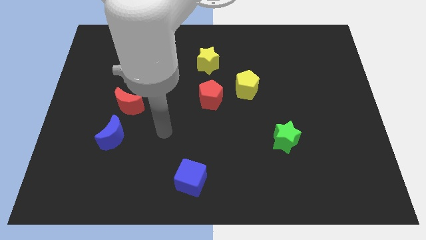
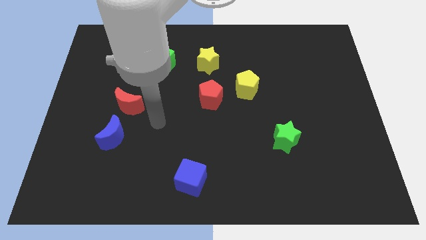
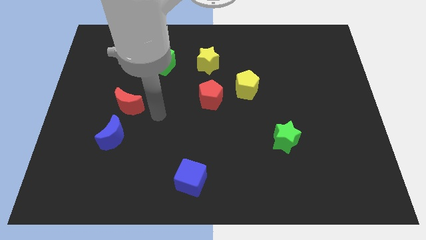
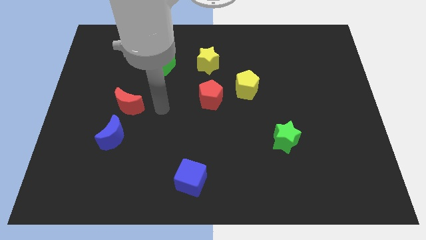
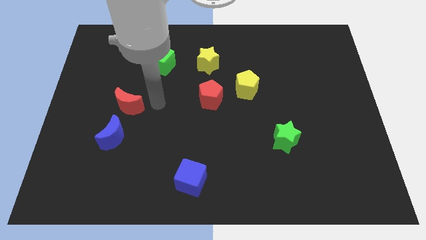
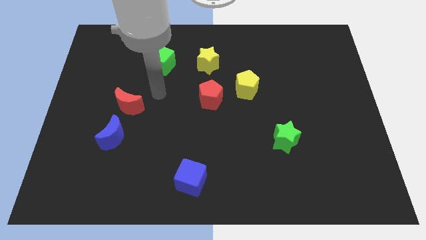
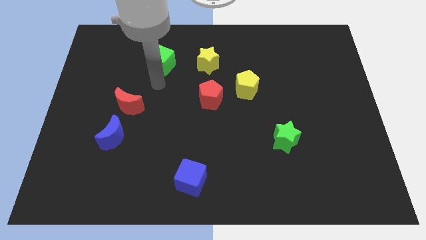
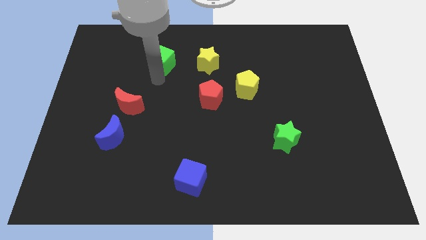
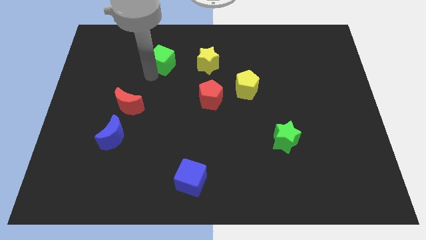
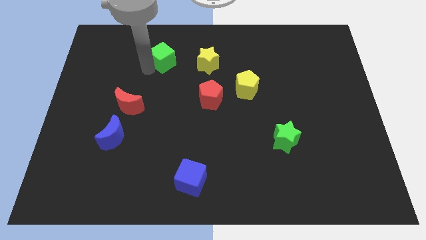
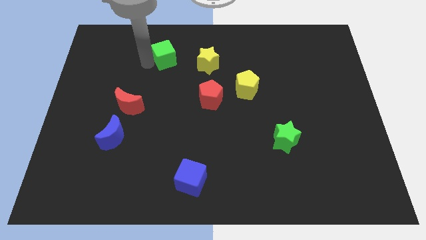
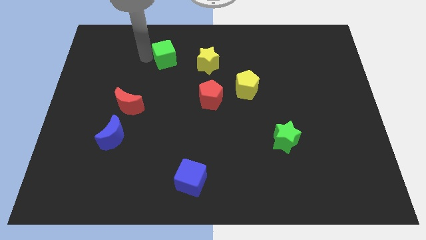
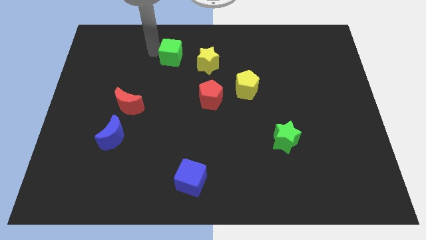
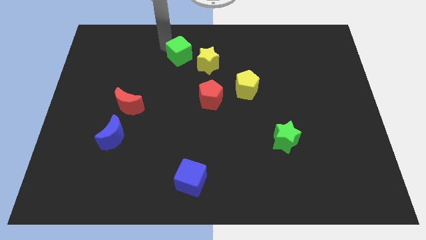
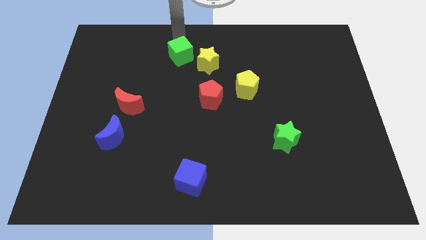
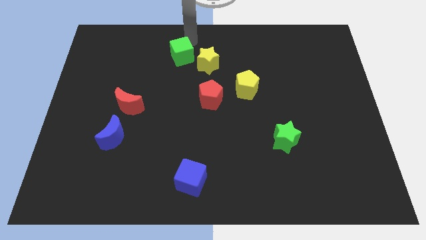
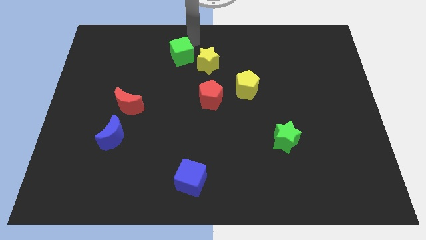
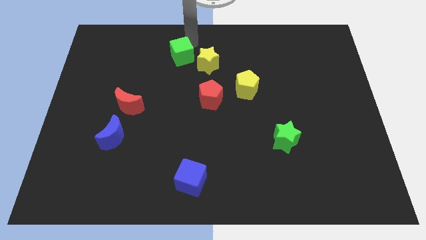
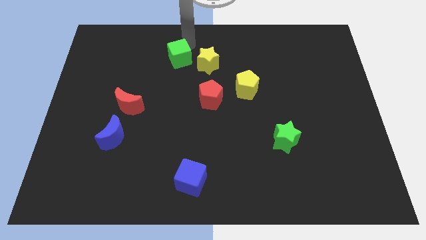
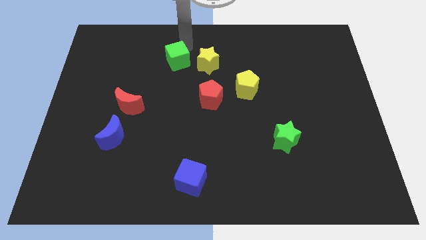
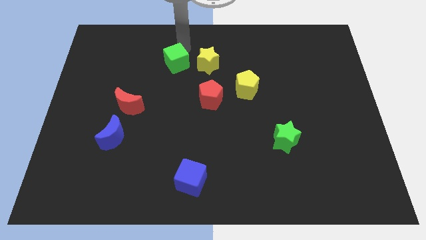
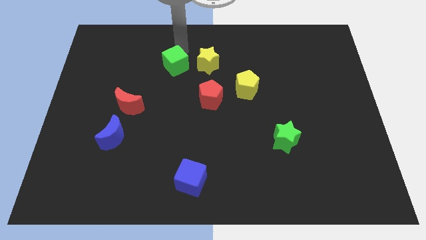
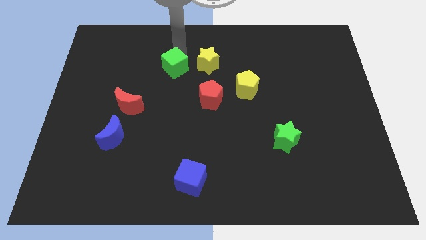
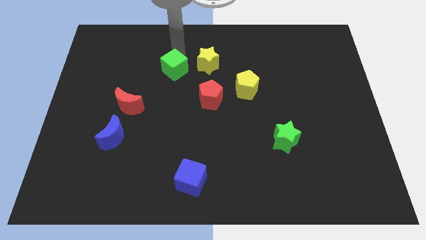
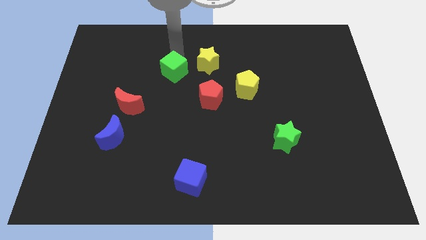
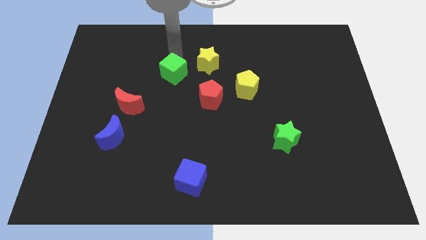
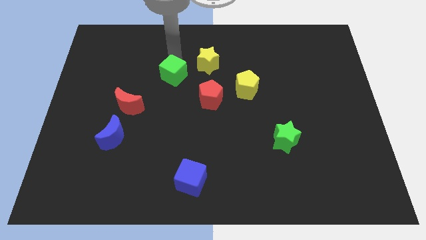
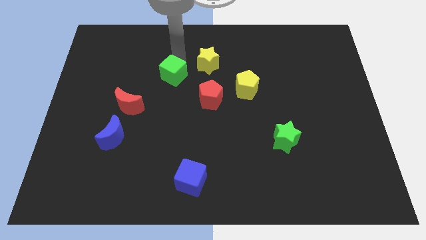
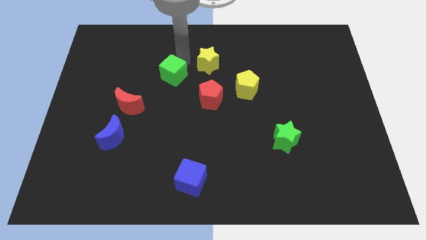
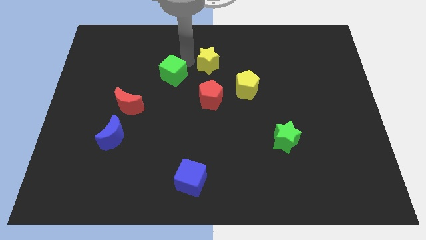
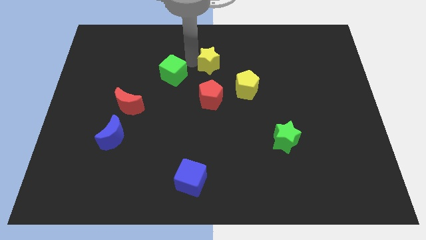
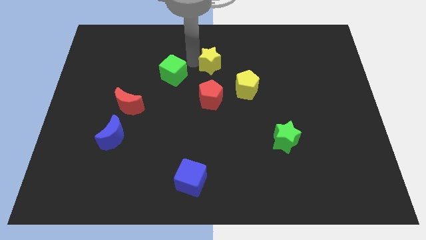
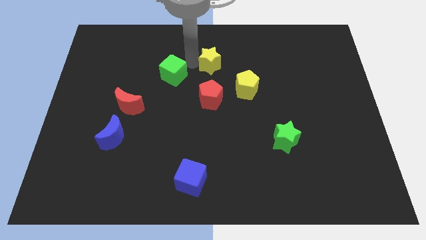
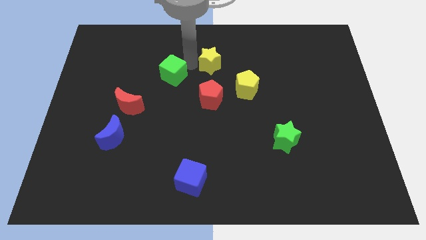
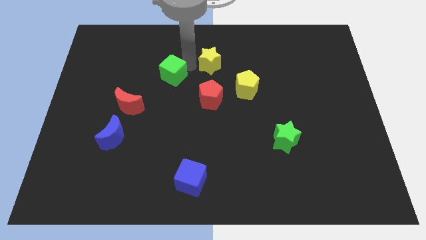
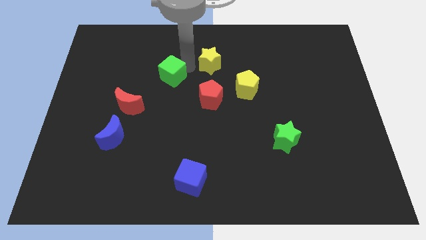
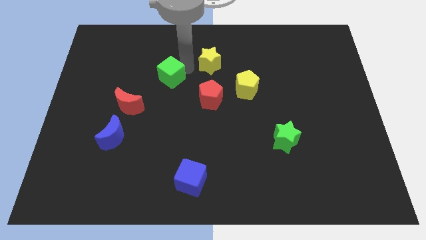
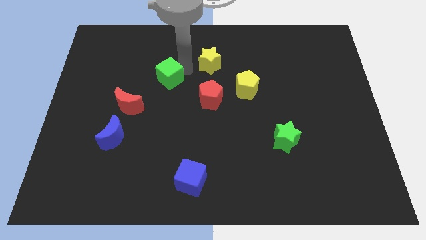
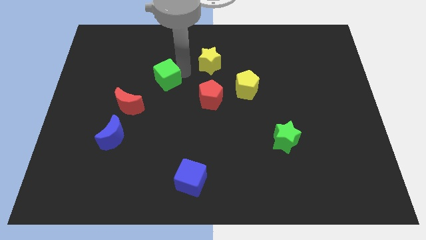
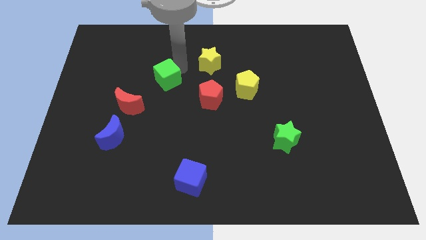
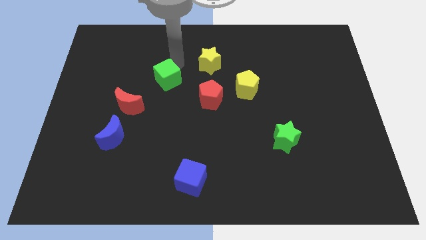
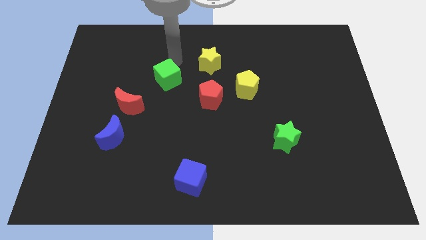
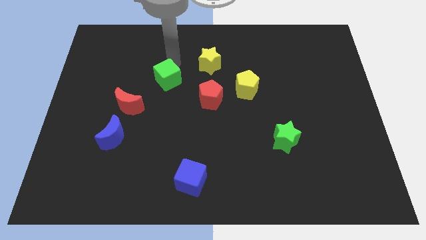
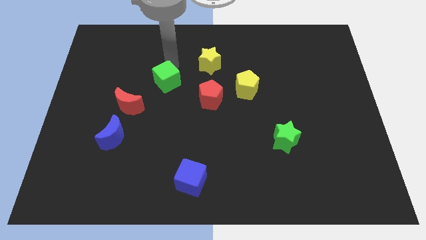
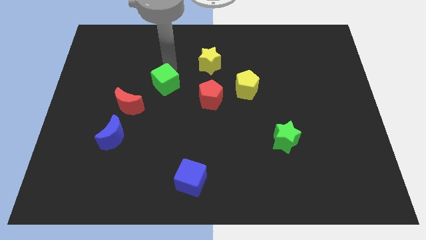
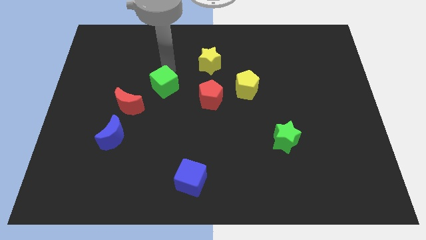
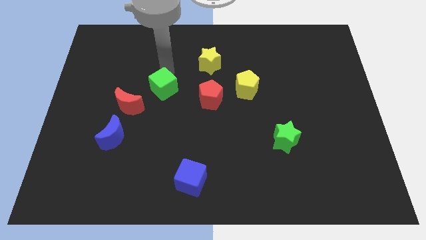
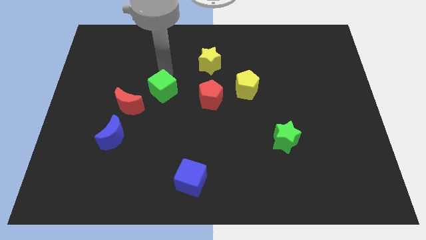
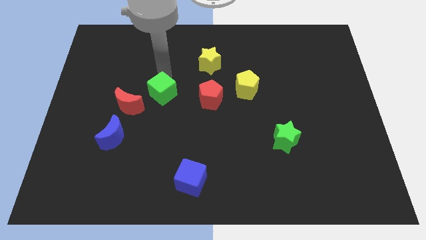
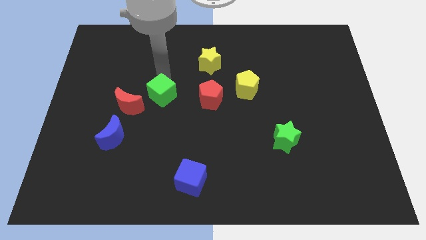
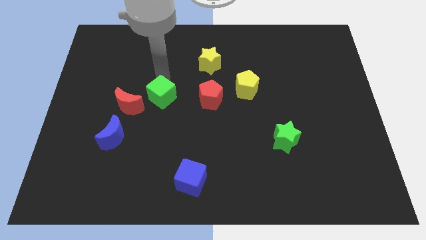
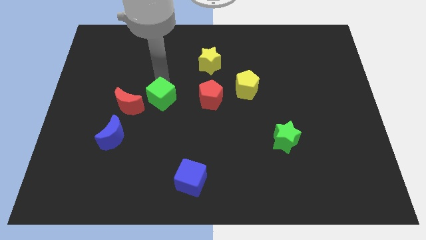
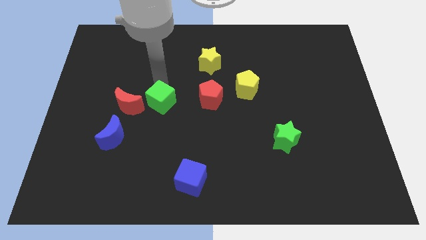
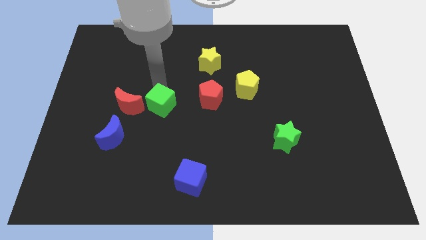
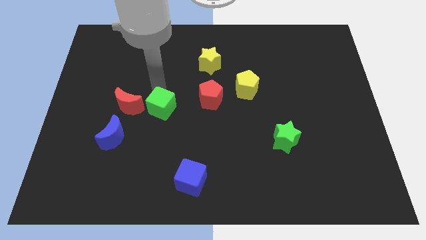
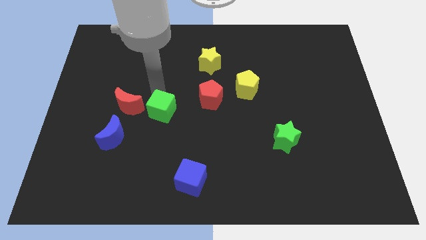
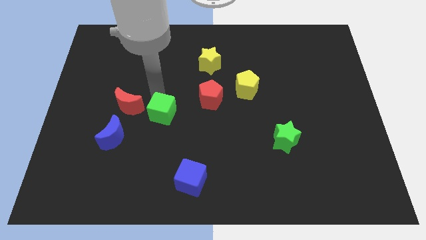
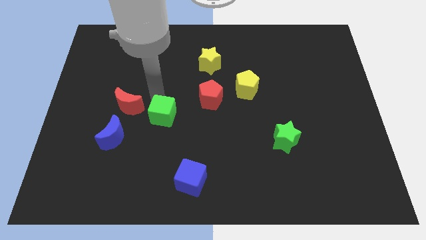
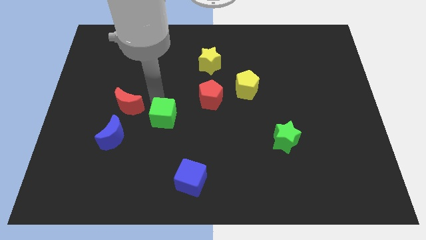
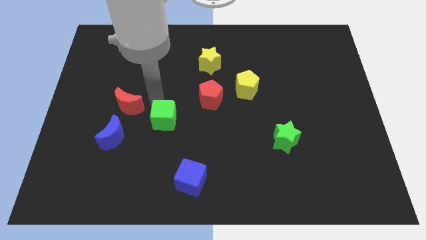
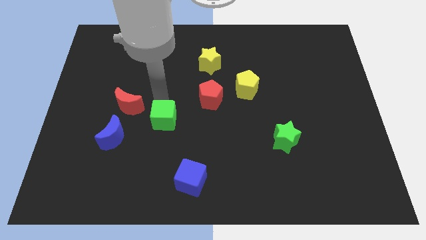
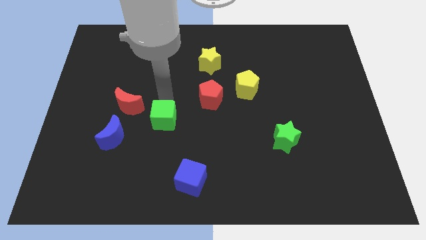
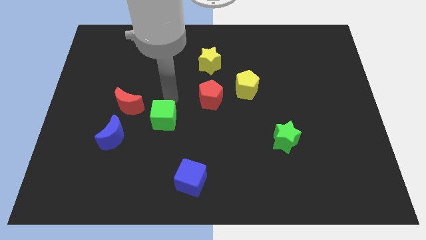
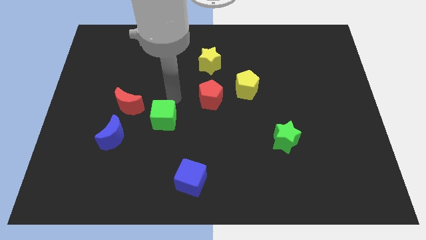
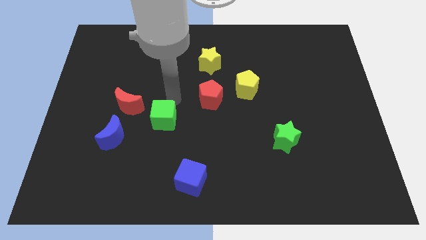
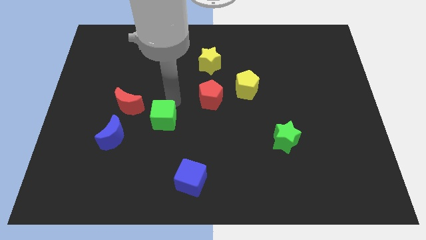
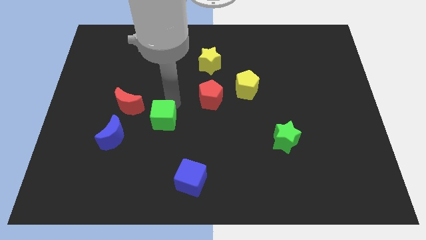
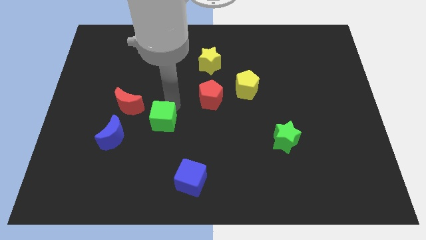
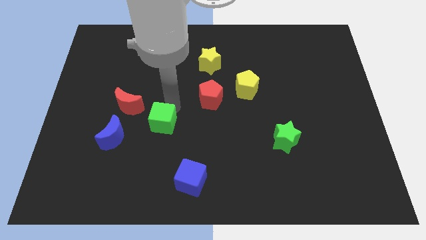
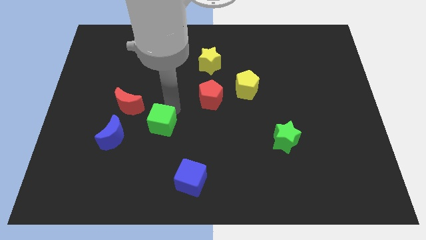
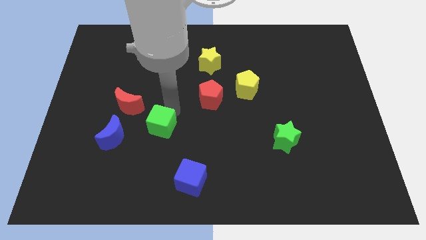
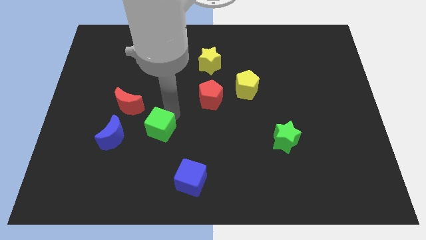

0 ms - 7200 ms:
move the green cube downwards

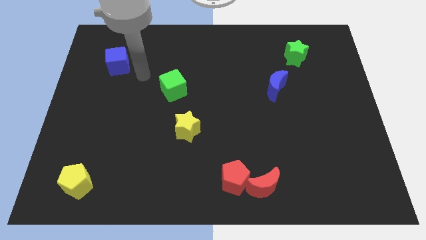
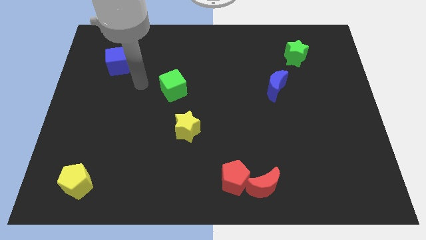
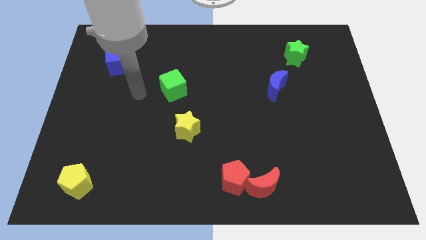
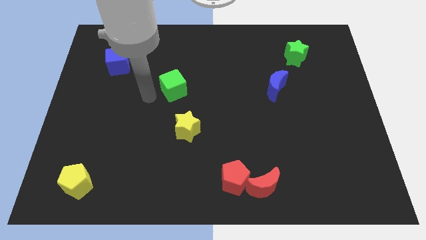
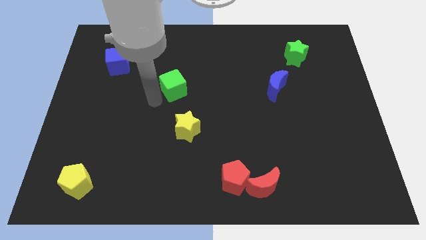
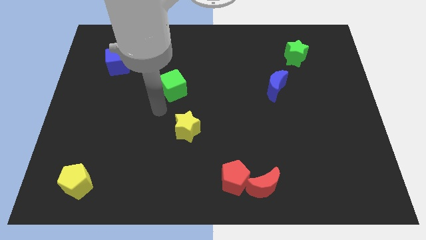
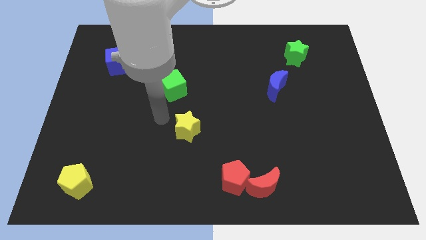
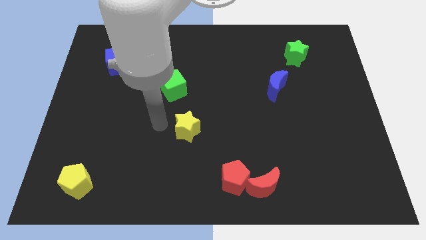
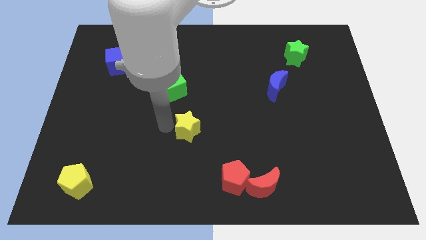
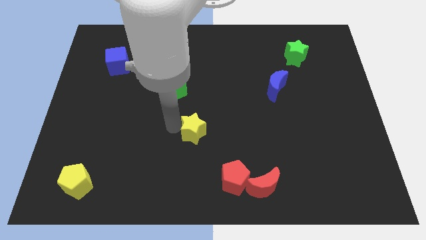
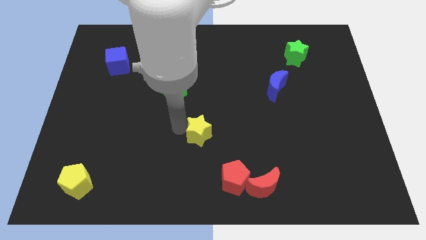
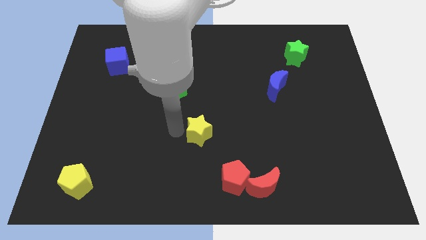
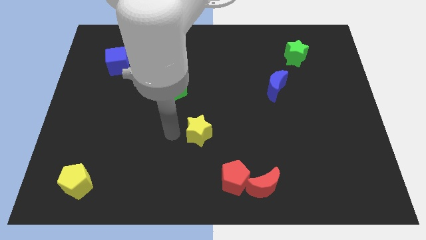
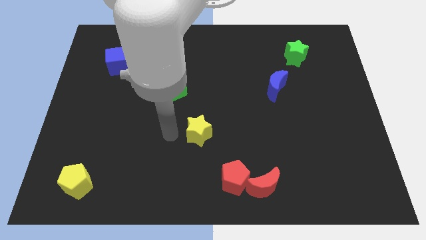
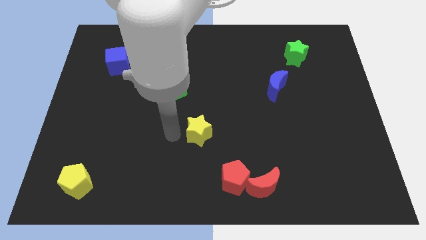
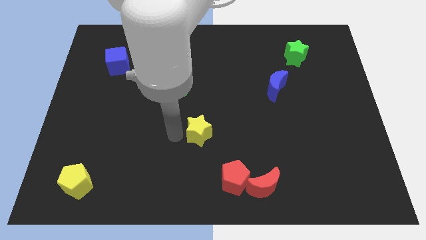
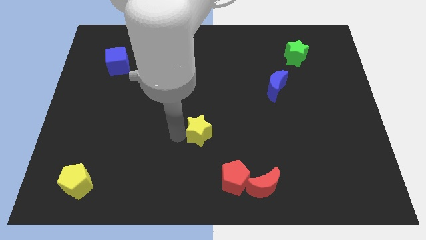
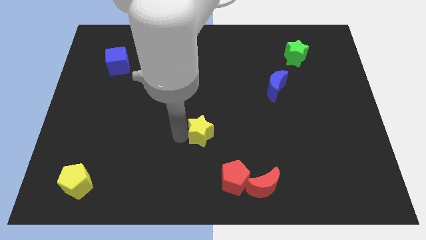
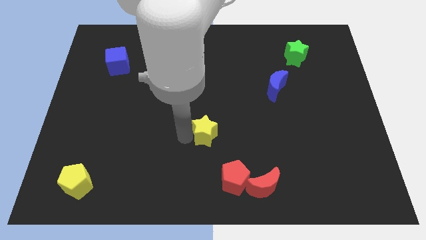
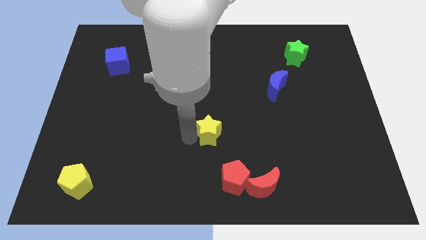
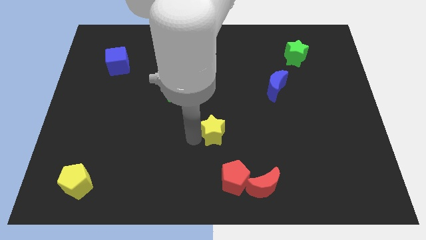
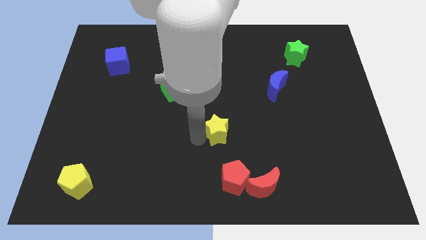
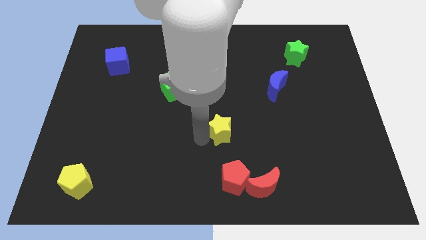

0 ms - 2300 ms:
push the yellow star to the right a little bit
